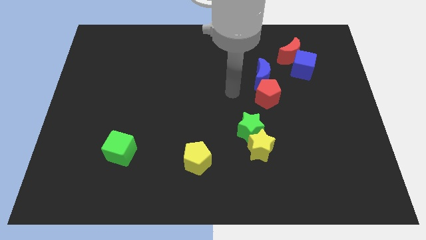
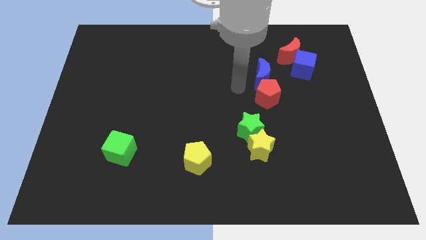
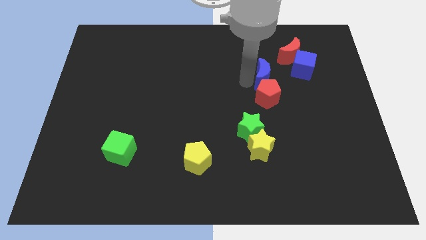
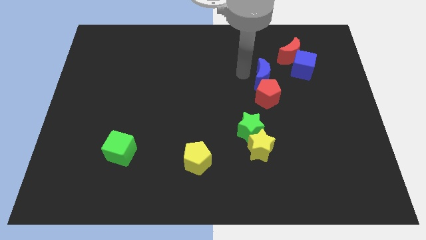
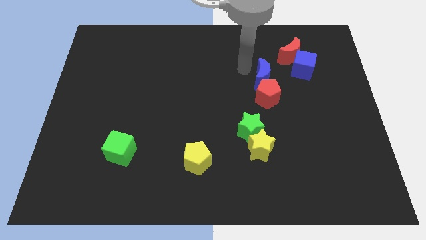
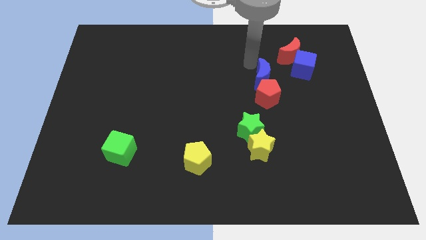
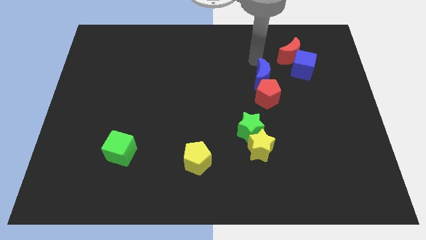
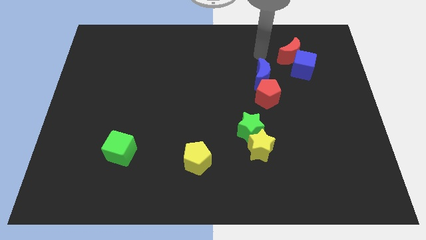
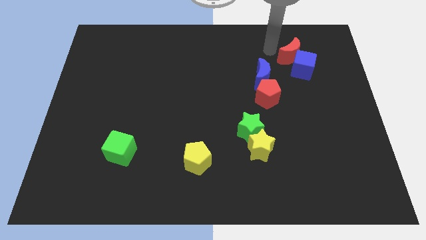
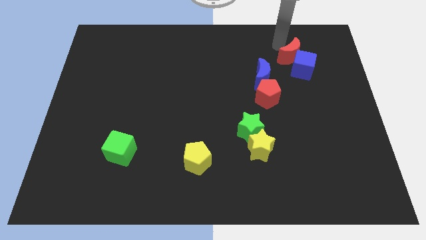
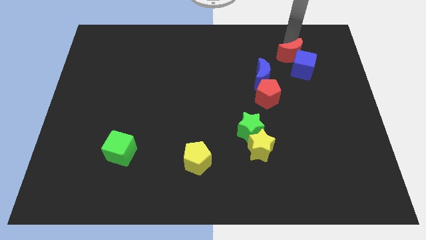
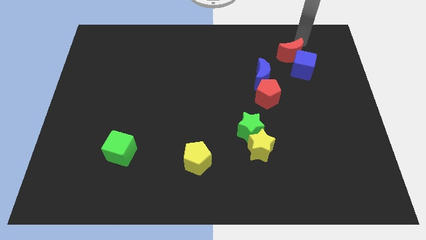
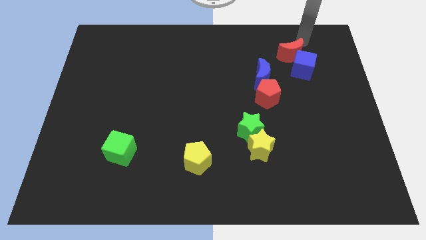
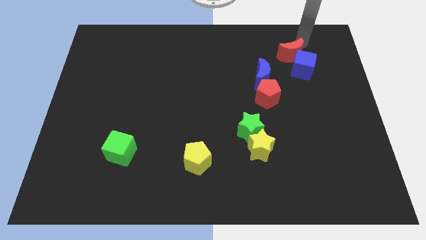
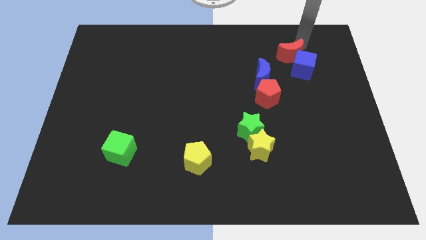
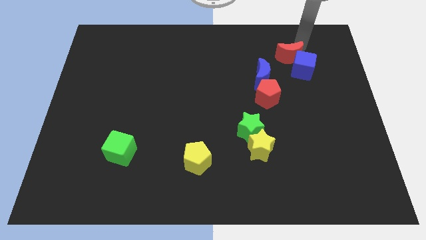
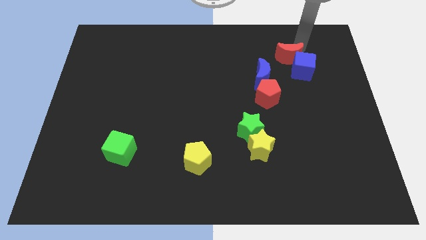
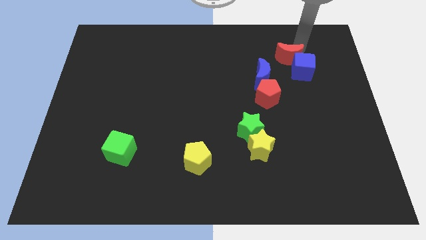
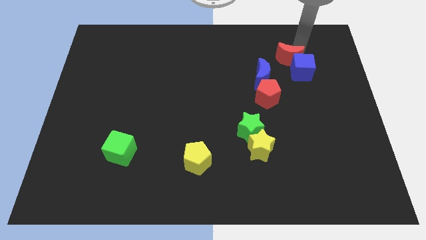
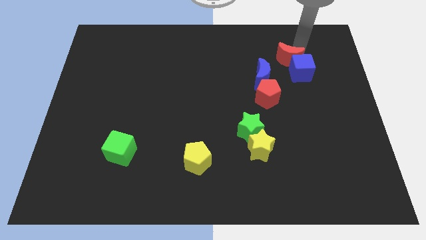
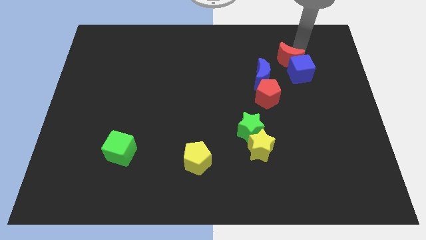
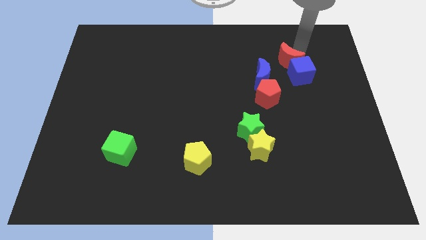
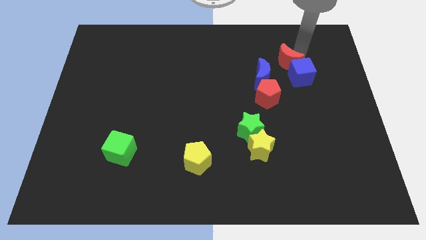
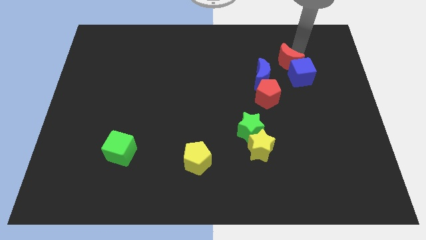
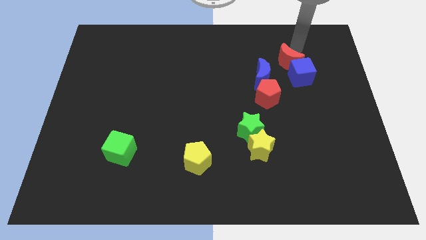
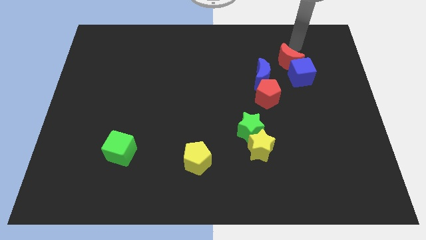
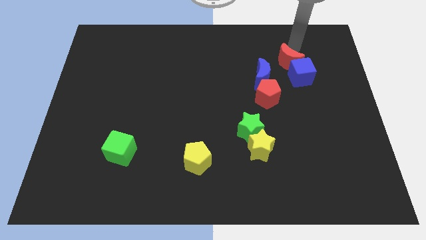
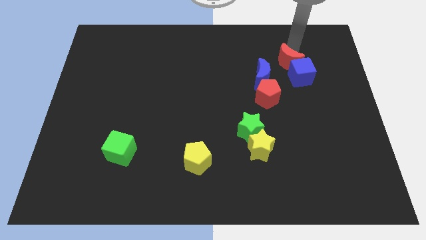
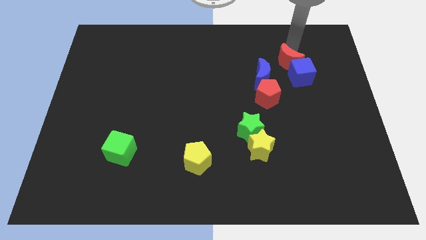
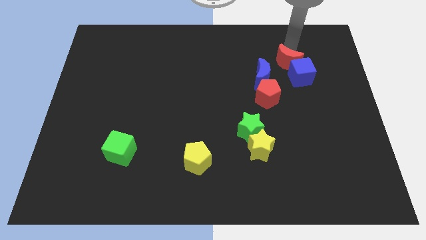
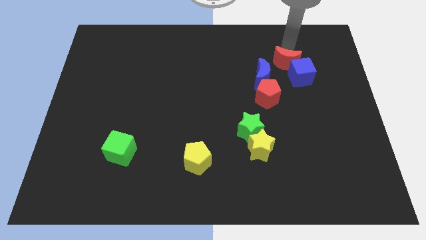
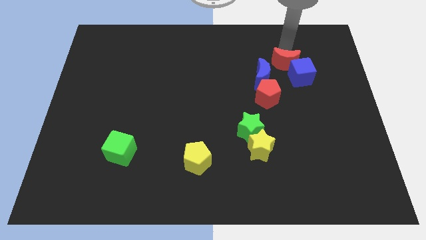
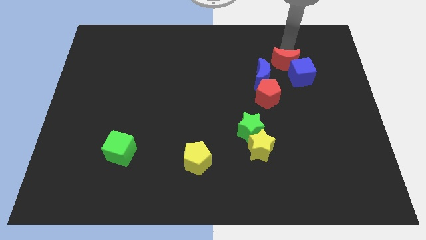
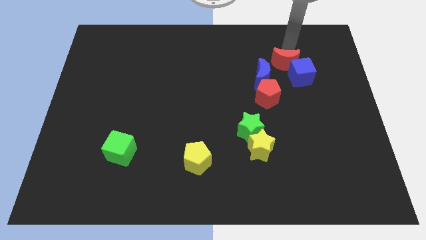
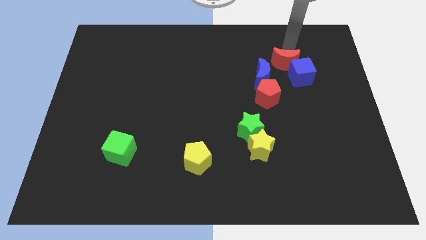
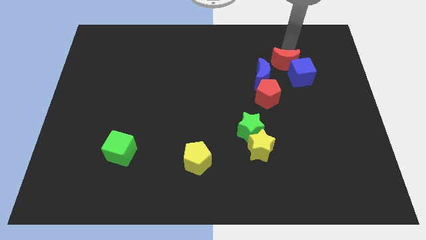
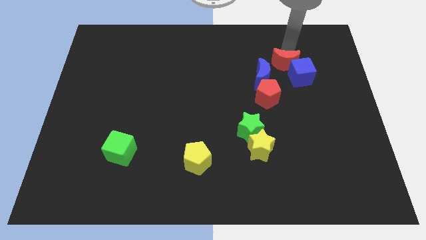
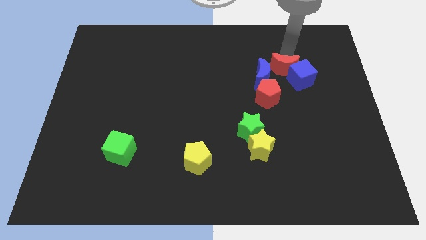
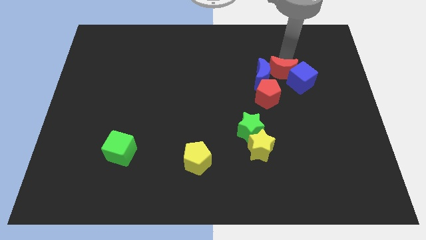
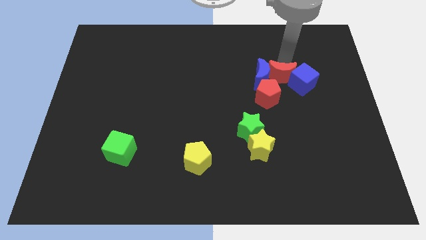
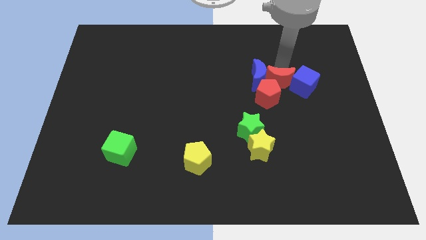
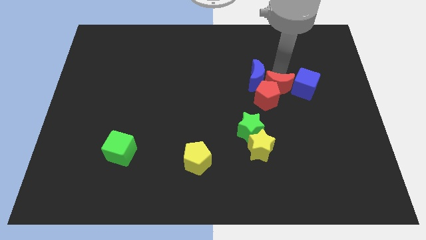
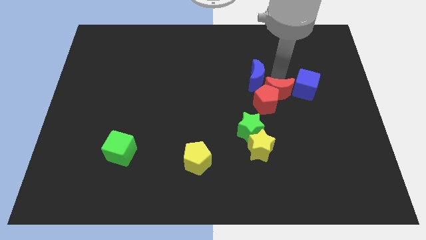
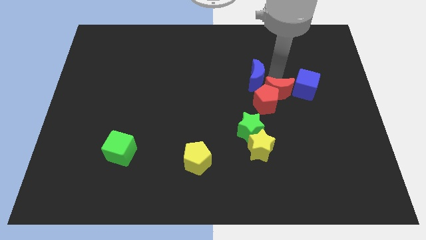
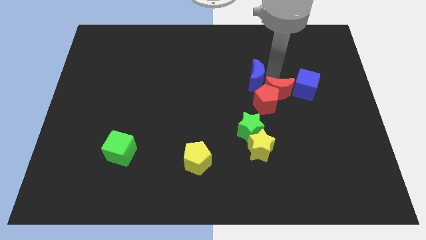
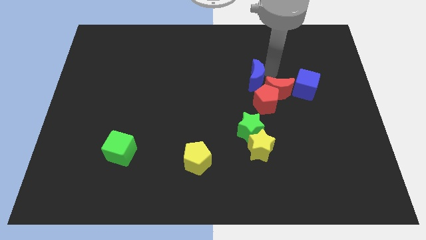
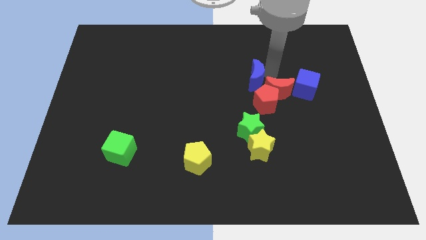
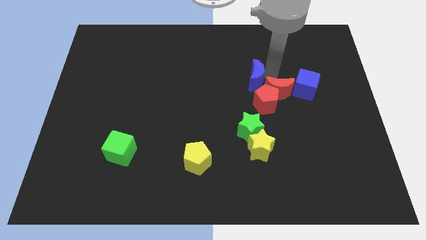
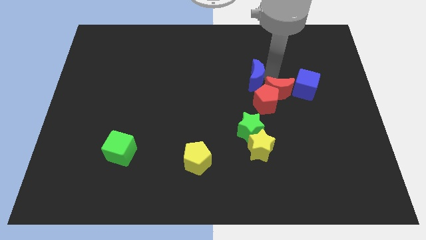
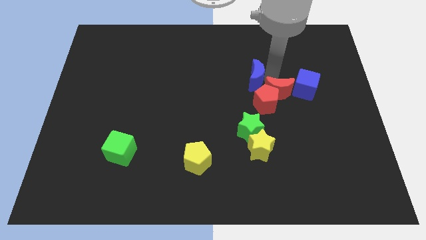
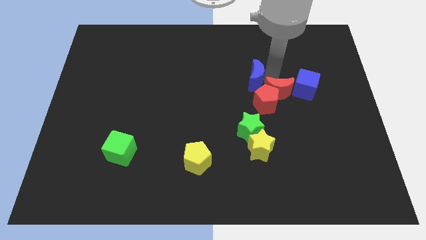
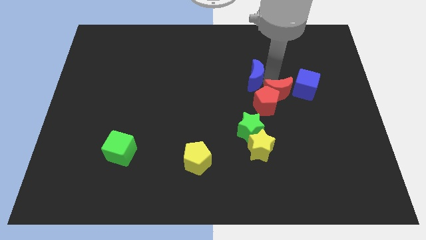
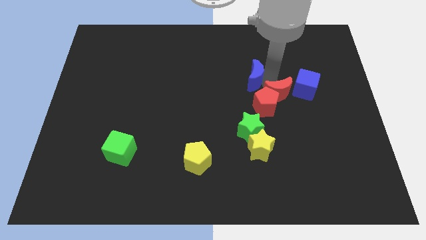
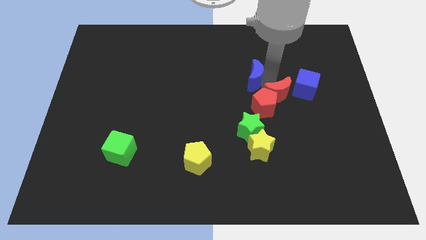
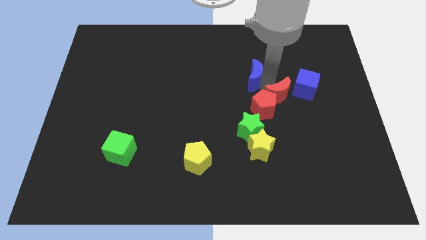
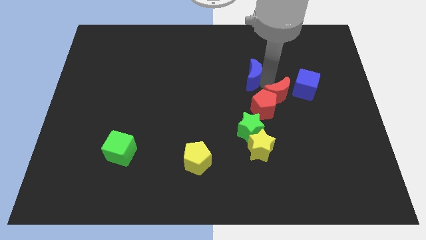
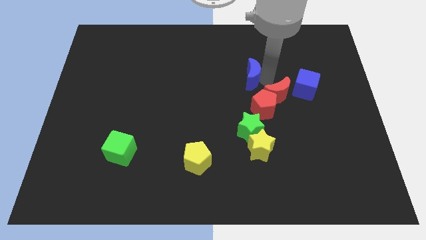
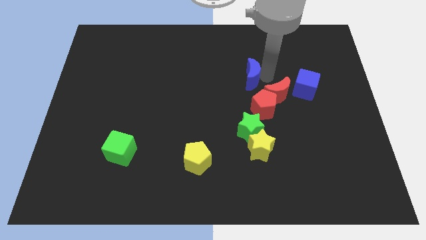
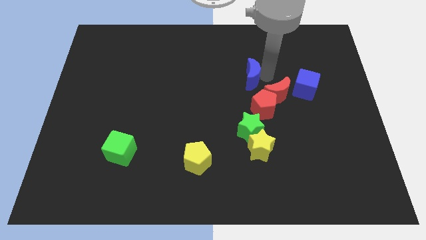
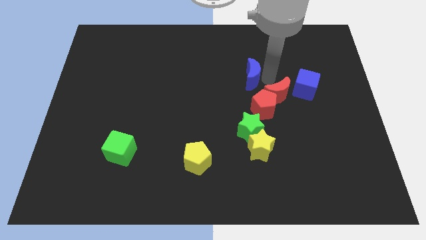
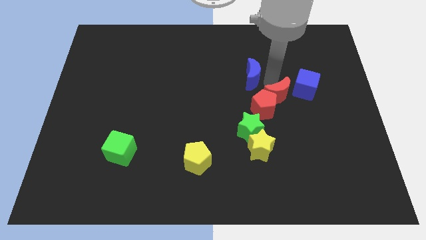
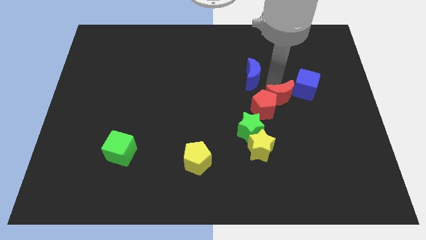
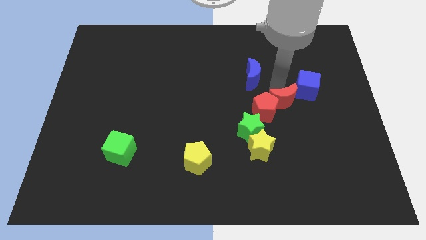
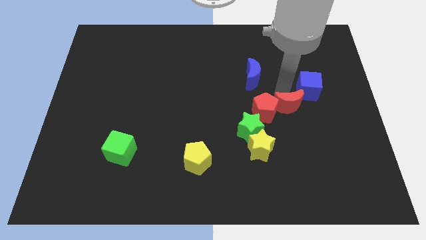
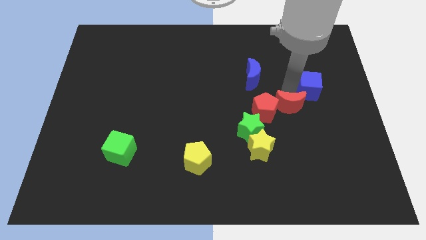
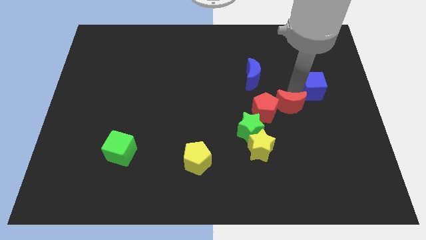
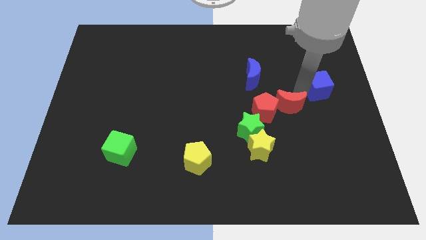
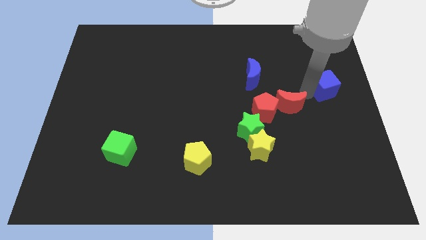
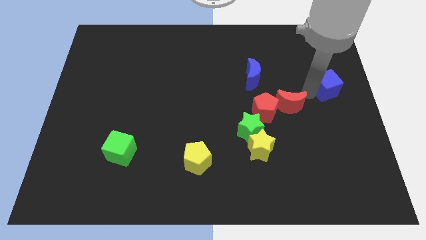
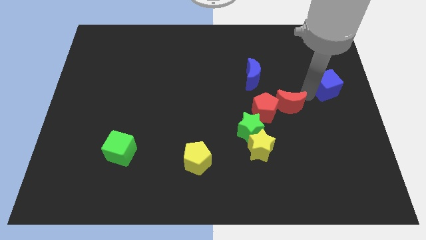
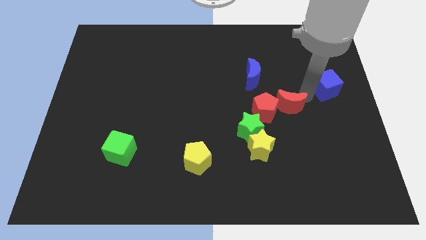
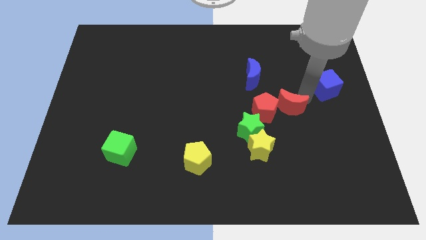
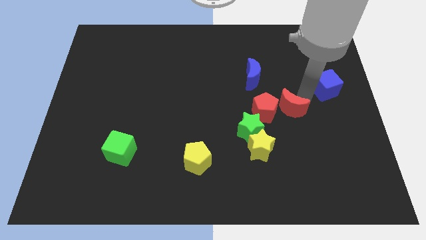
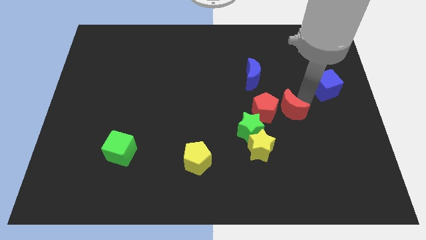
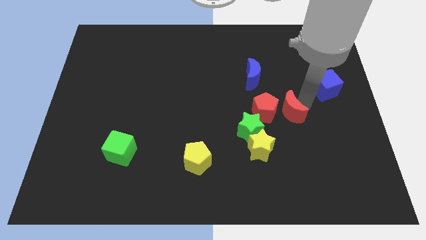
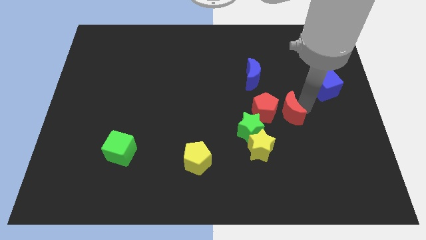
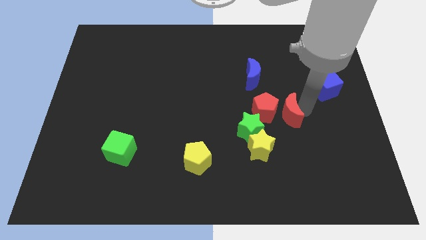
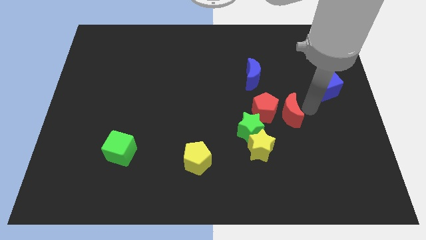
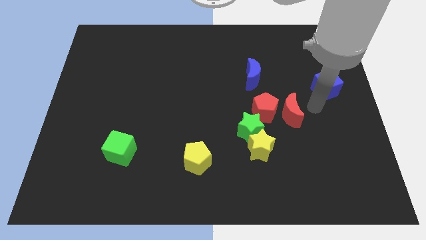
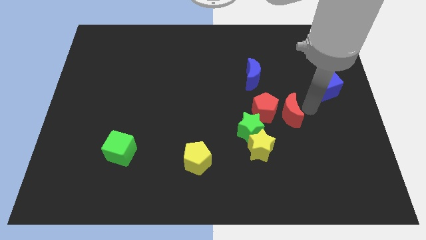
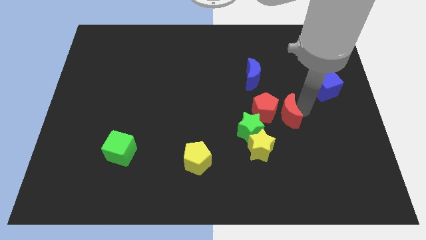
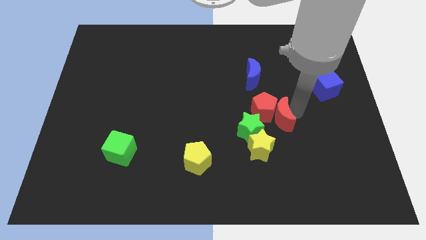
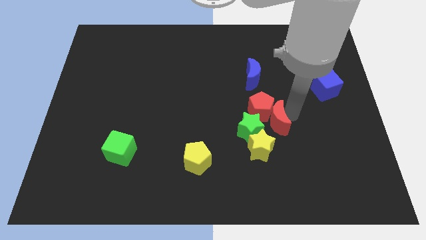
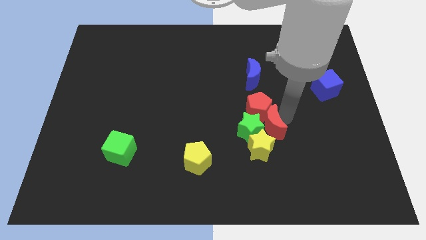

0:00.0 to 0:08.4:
move the red moon next to the green star
